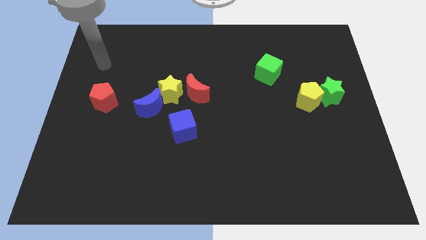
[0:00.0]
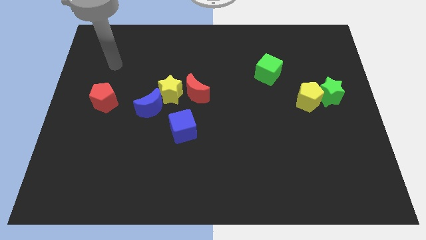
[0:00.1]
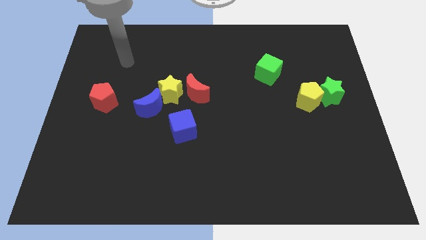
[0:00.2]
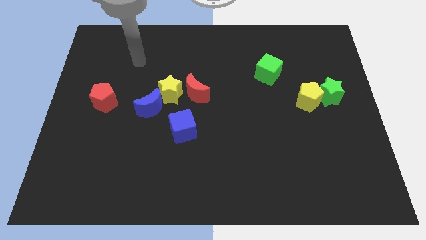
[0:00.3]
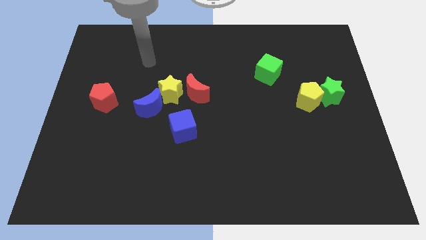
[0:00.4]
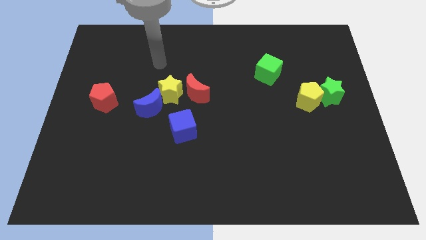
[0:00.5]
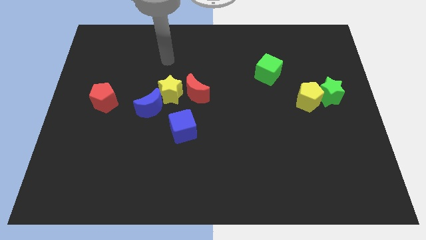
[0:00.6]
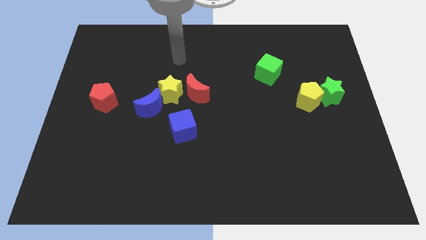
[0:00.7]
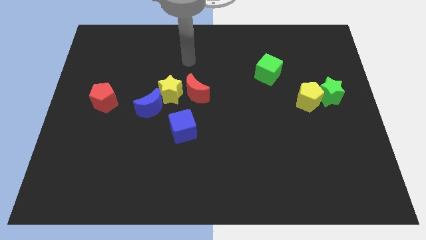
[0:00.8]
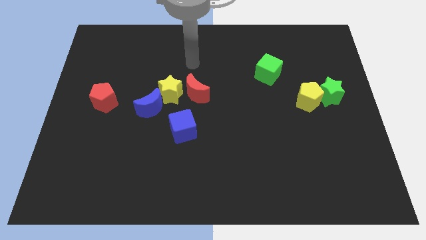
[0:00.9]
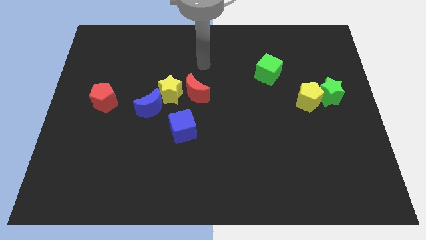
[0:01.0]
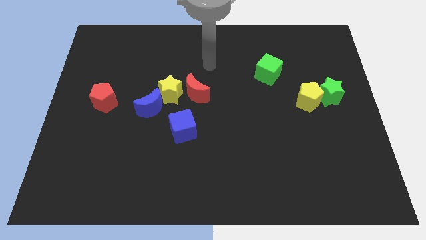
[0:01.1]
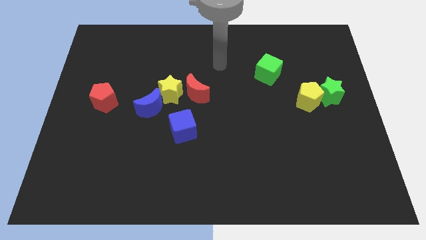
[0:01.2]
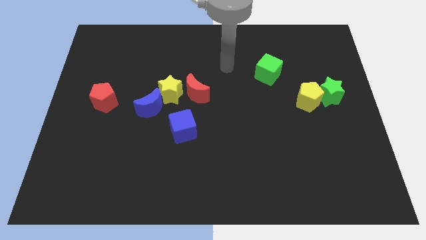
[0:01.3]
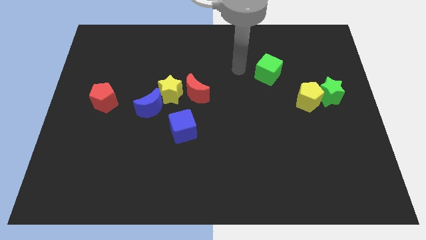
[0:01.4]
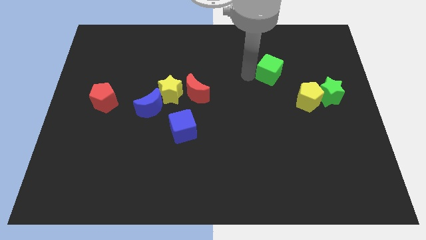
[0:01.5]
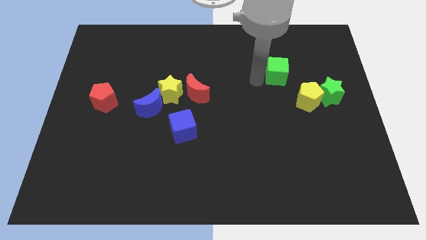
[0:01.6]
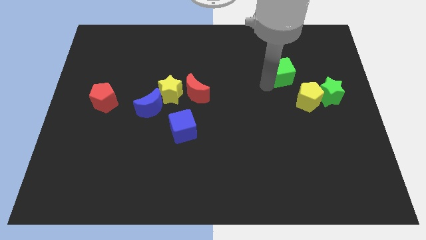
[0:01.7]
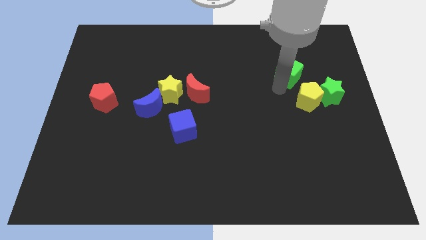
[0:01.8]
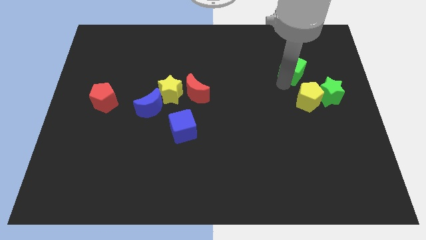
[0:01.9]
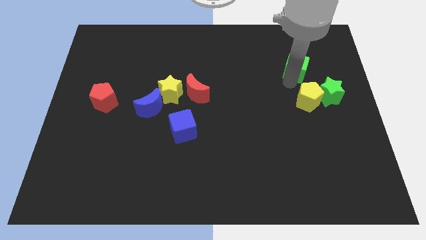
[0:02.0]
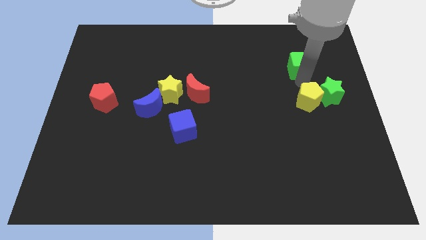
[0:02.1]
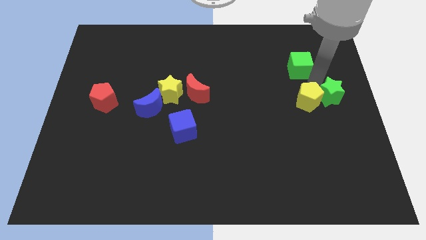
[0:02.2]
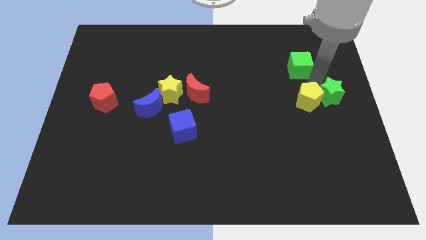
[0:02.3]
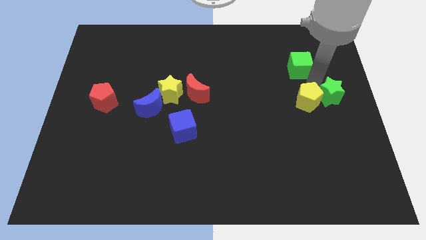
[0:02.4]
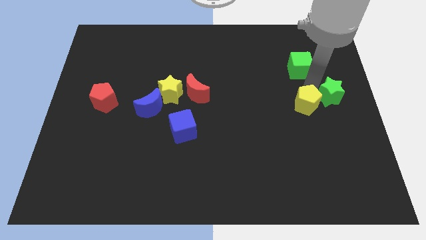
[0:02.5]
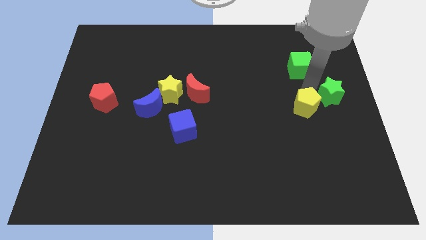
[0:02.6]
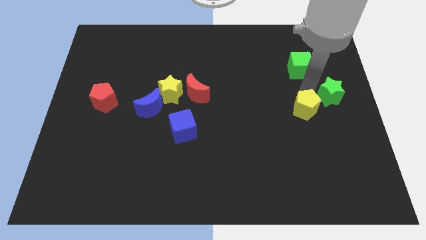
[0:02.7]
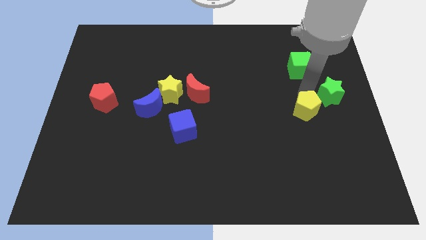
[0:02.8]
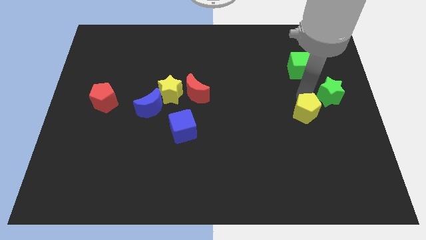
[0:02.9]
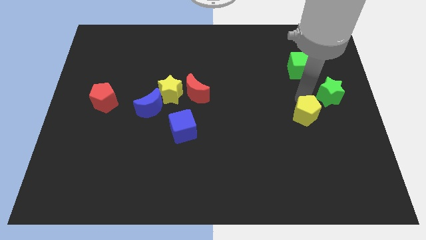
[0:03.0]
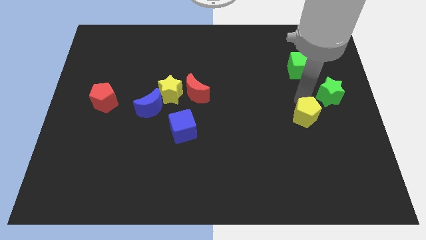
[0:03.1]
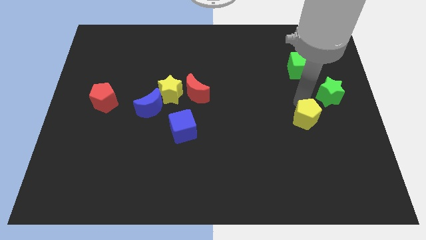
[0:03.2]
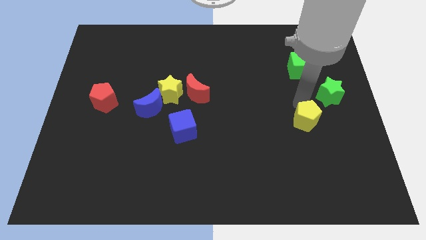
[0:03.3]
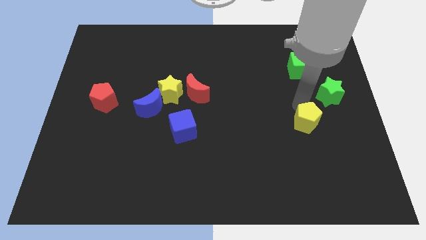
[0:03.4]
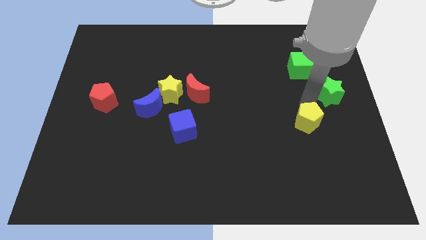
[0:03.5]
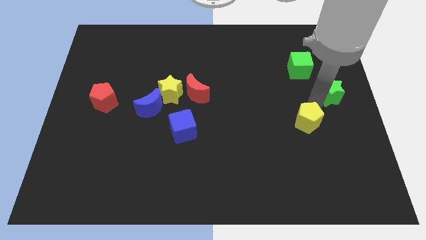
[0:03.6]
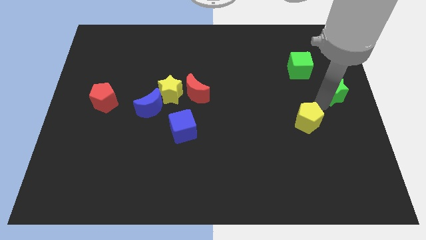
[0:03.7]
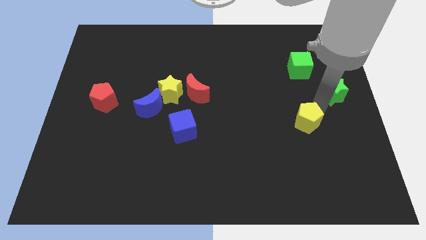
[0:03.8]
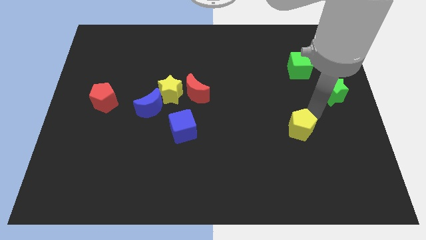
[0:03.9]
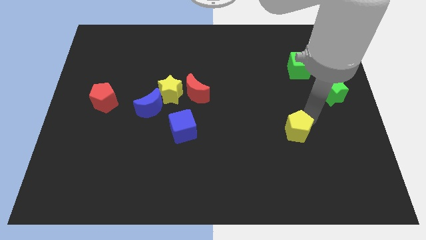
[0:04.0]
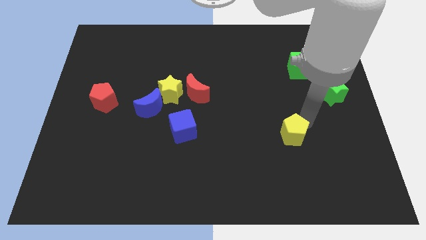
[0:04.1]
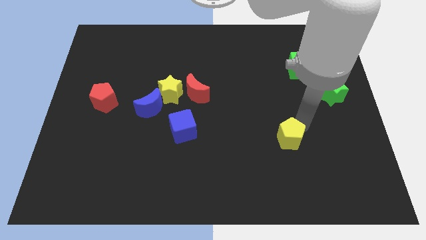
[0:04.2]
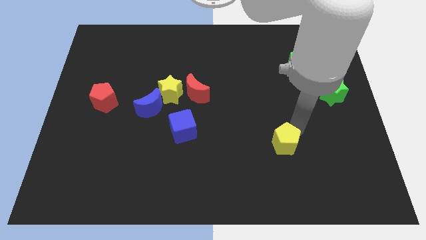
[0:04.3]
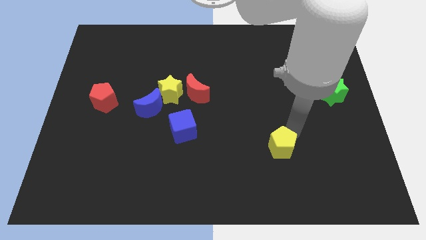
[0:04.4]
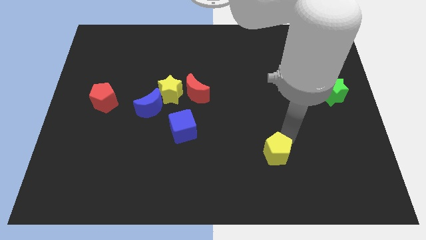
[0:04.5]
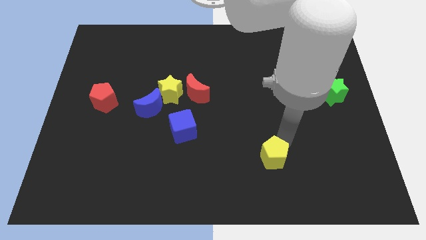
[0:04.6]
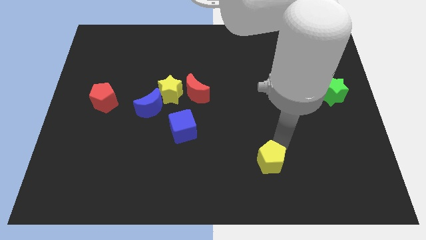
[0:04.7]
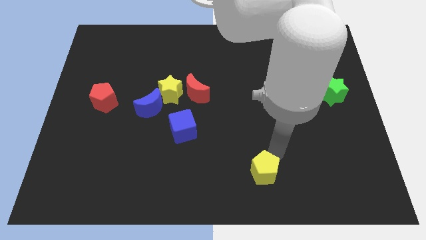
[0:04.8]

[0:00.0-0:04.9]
push the yellow pentagon to the bottom

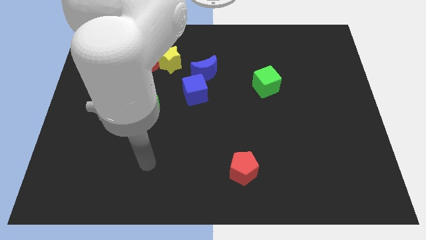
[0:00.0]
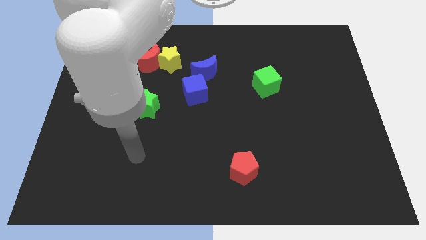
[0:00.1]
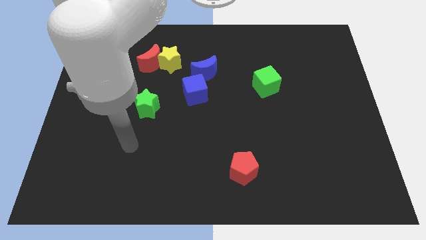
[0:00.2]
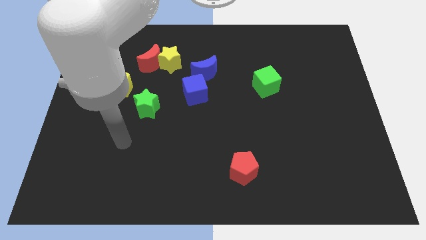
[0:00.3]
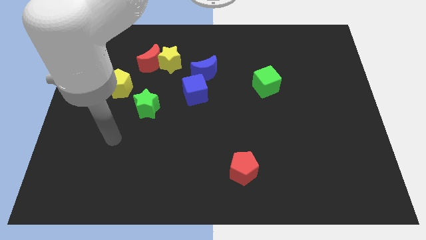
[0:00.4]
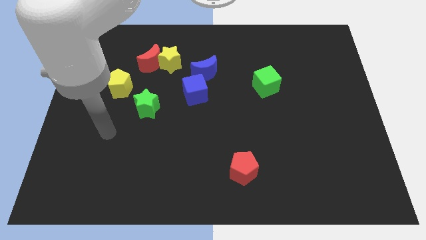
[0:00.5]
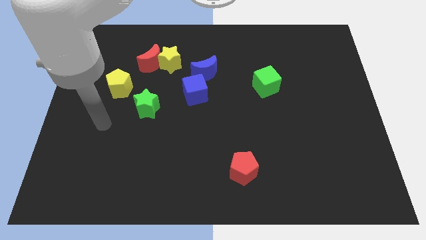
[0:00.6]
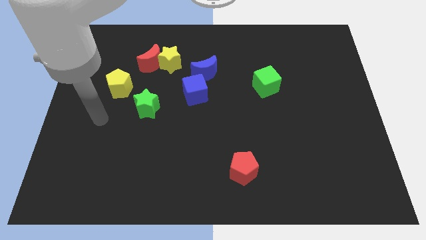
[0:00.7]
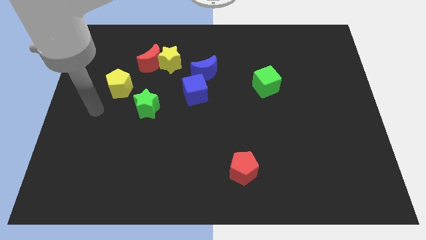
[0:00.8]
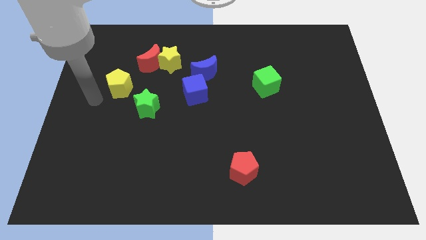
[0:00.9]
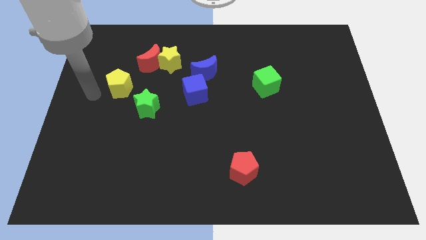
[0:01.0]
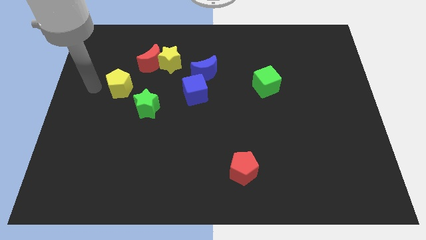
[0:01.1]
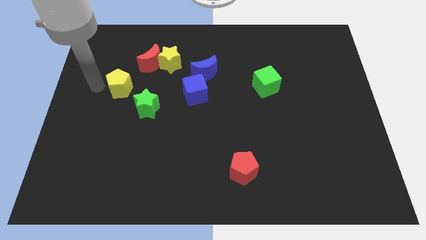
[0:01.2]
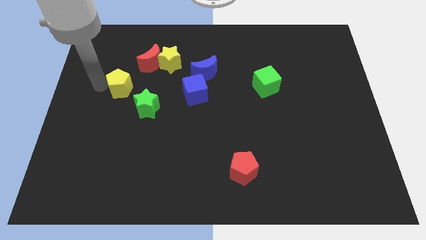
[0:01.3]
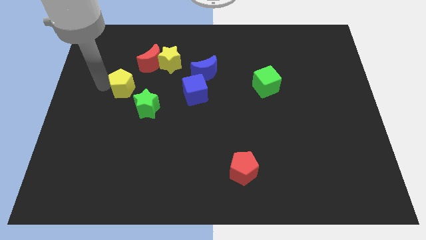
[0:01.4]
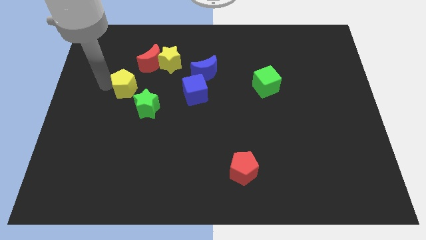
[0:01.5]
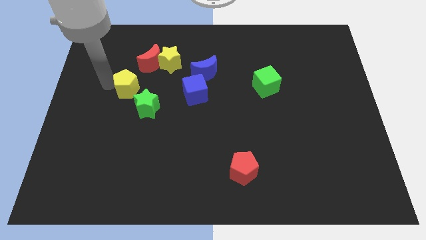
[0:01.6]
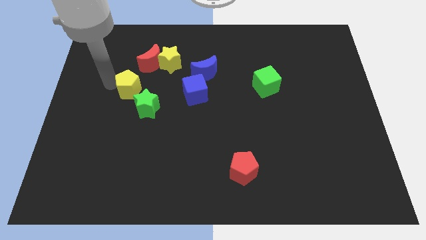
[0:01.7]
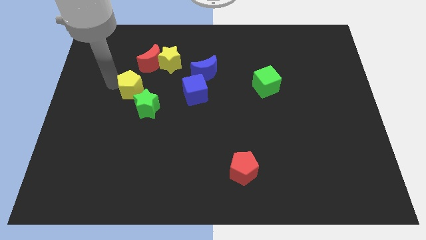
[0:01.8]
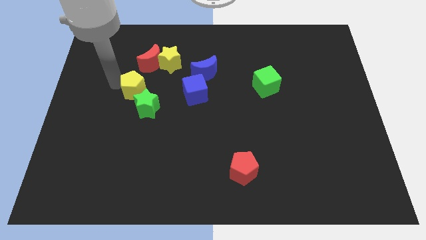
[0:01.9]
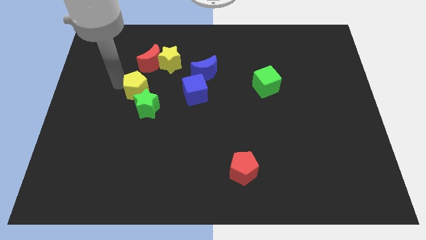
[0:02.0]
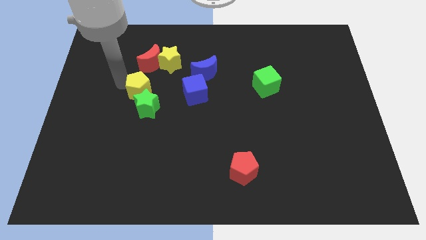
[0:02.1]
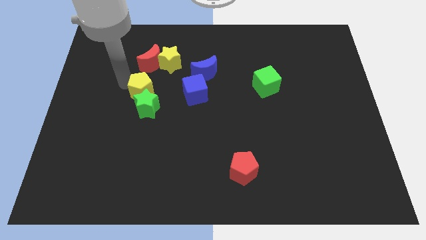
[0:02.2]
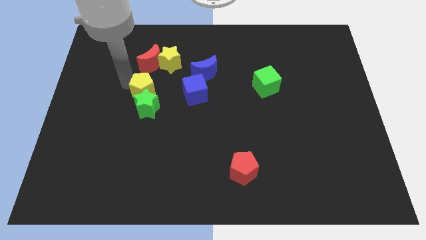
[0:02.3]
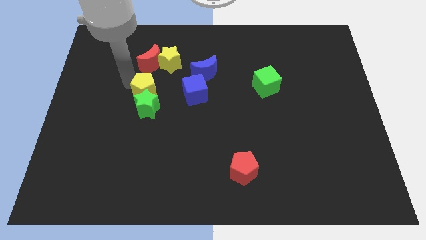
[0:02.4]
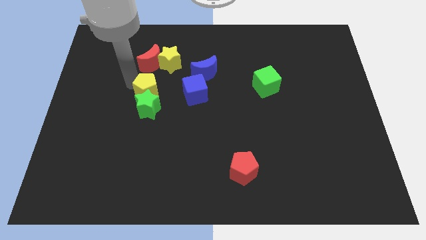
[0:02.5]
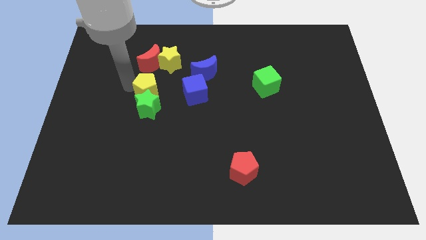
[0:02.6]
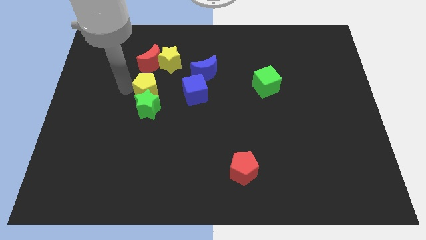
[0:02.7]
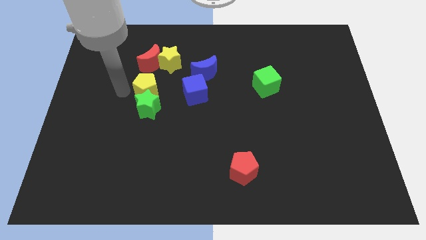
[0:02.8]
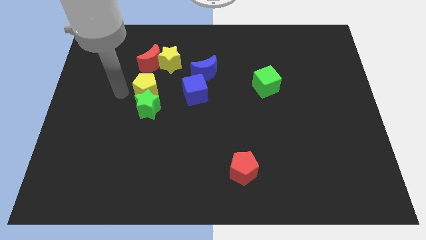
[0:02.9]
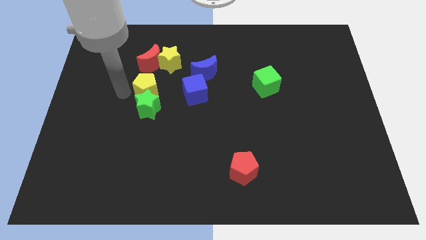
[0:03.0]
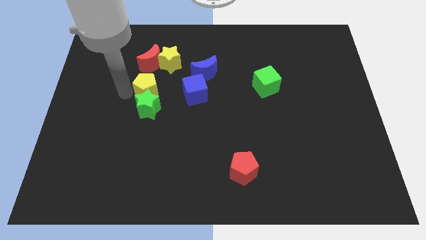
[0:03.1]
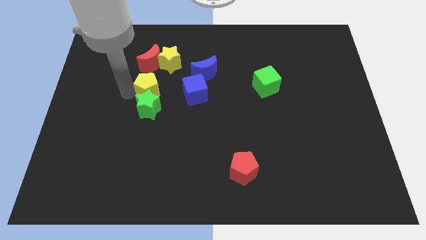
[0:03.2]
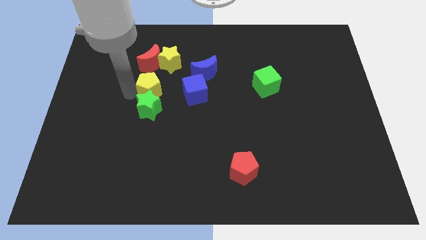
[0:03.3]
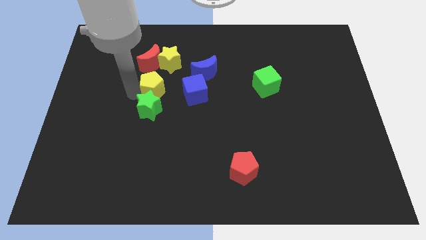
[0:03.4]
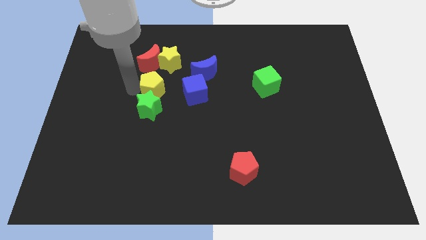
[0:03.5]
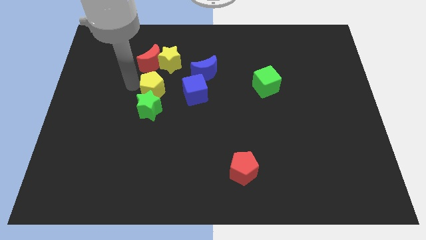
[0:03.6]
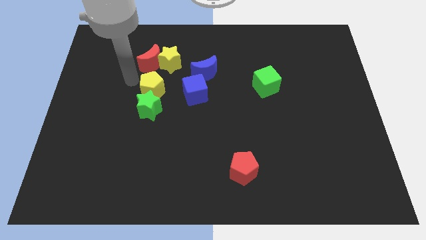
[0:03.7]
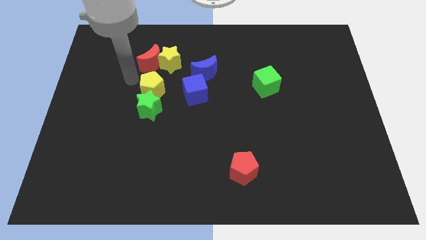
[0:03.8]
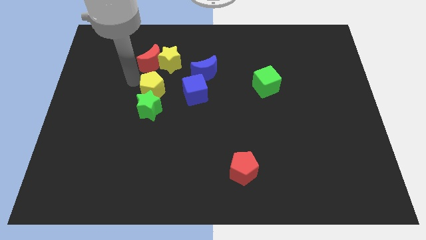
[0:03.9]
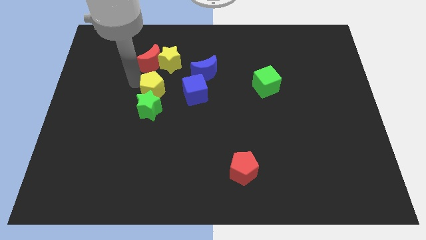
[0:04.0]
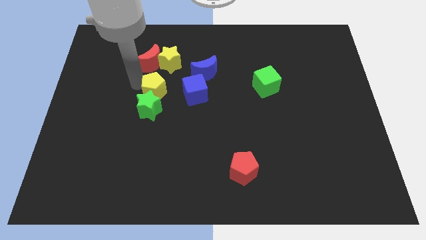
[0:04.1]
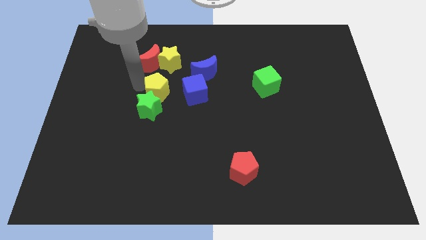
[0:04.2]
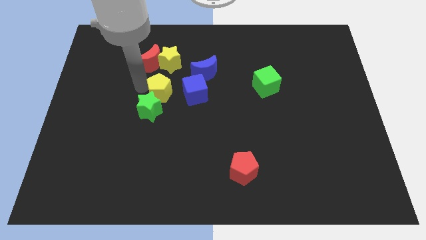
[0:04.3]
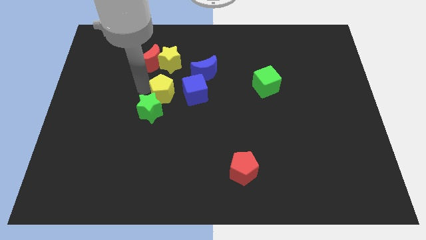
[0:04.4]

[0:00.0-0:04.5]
put the yellow pentagon to the middle of the board
